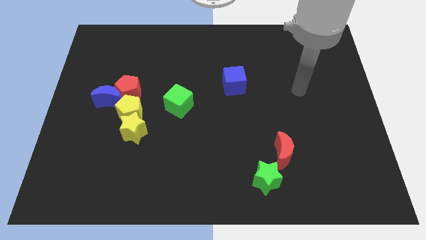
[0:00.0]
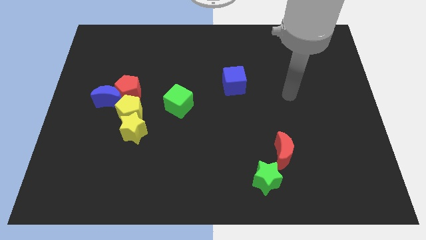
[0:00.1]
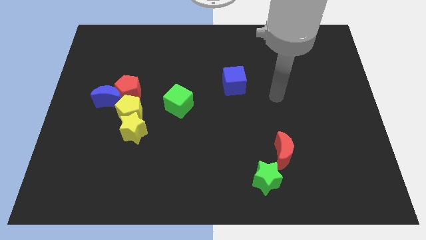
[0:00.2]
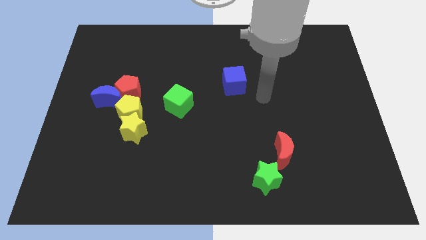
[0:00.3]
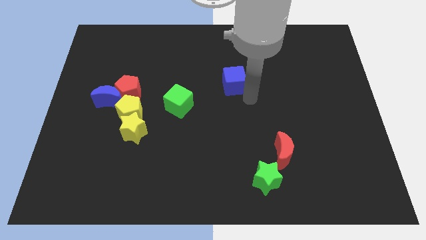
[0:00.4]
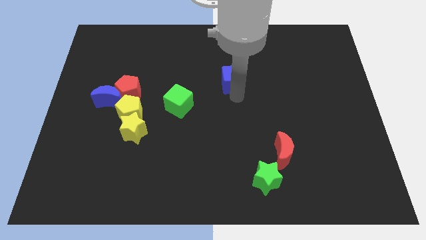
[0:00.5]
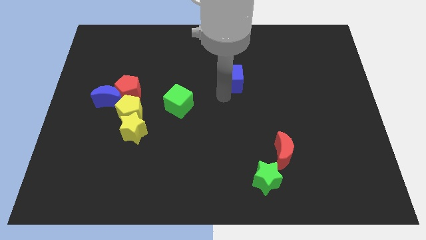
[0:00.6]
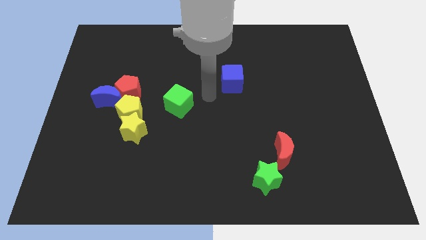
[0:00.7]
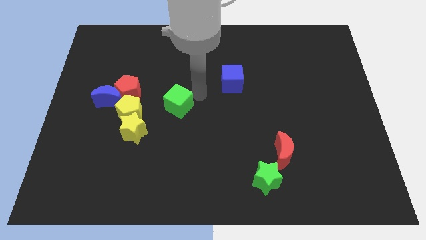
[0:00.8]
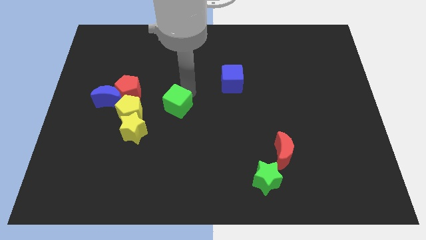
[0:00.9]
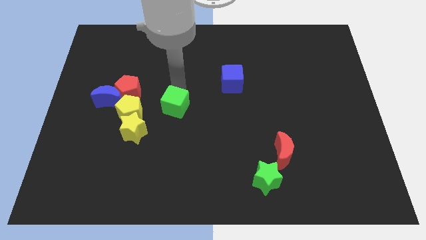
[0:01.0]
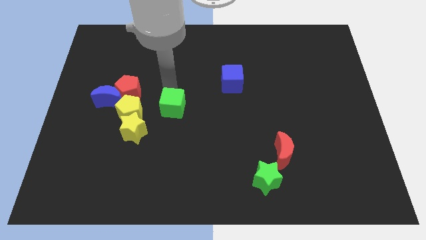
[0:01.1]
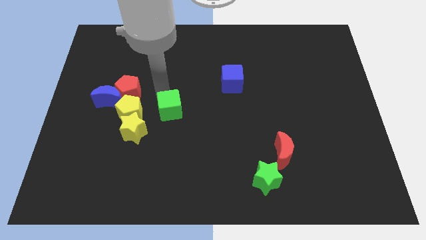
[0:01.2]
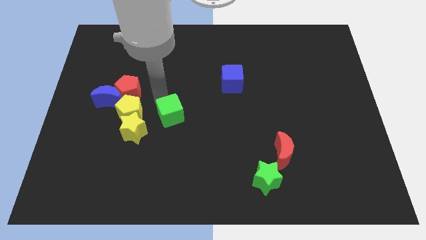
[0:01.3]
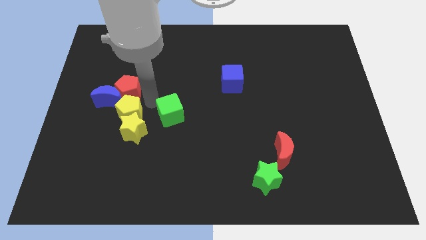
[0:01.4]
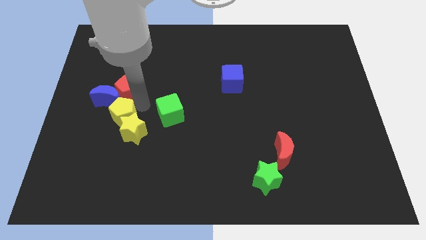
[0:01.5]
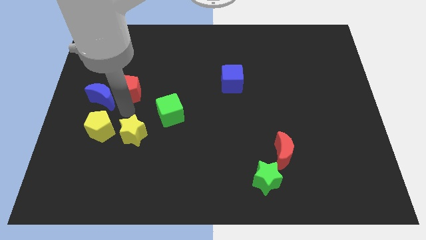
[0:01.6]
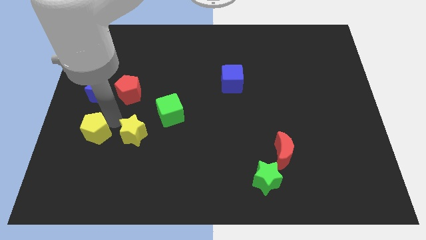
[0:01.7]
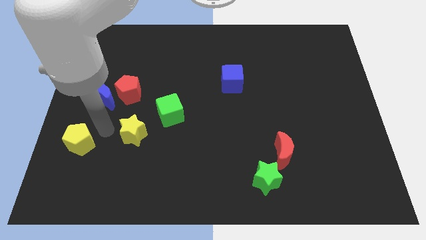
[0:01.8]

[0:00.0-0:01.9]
move the yellow star away from the yellow pentagon

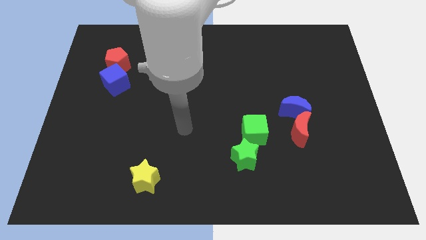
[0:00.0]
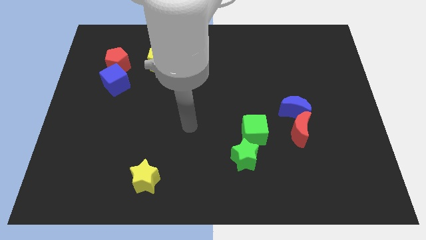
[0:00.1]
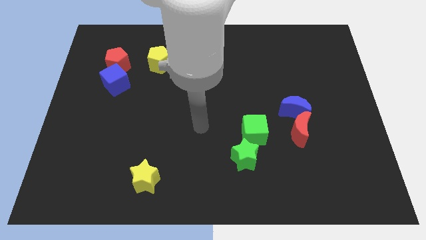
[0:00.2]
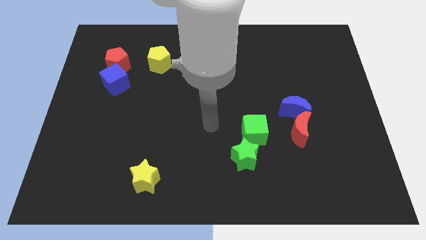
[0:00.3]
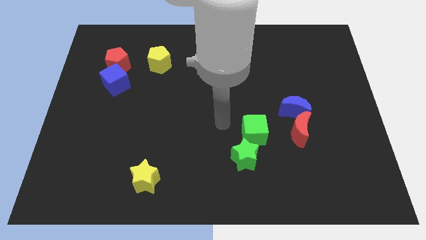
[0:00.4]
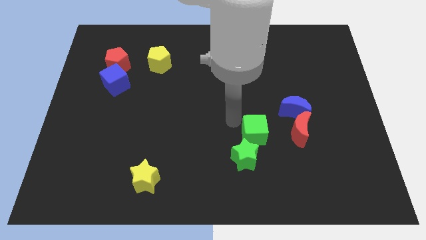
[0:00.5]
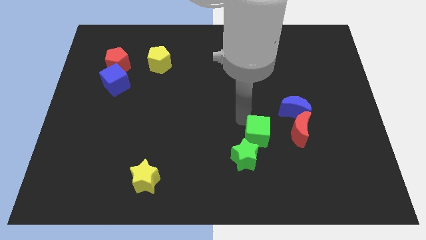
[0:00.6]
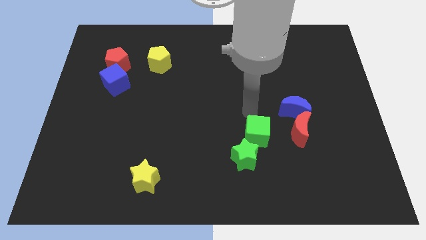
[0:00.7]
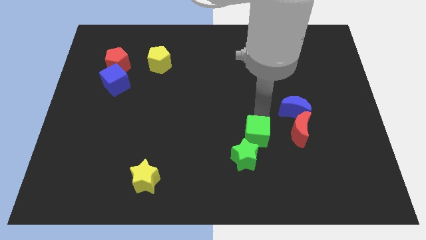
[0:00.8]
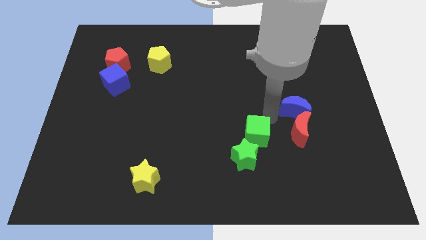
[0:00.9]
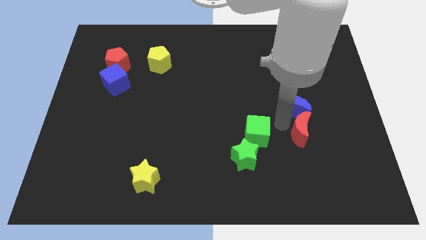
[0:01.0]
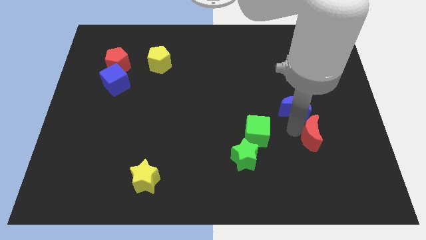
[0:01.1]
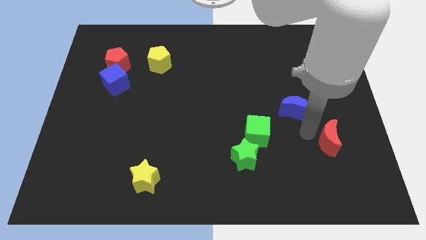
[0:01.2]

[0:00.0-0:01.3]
separate the blue moon from the red moon

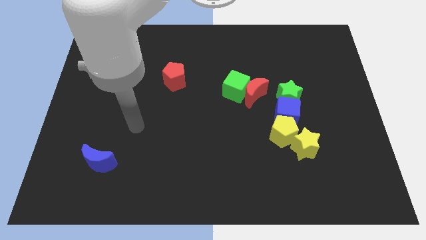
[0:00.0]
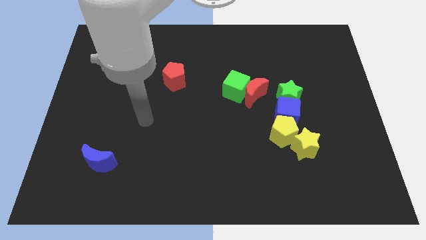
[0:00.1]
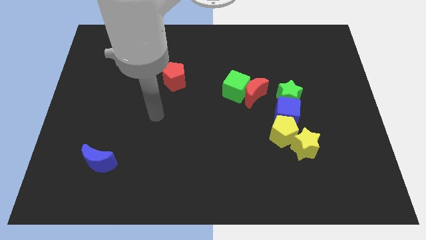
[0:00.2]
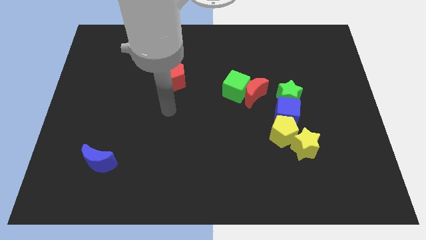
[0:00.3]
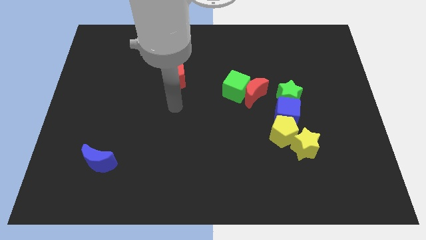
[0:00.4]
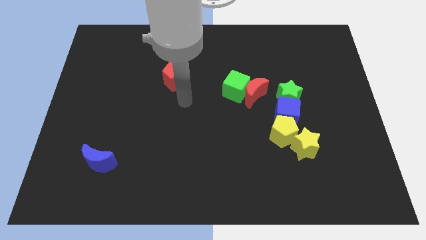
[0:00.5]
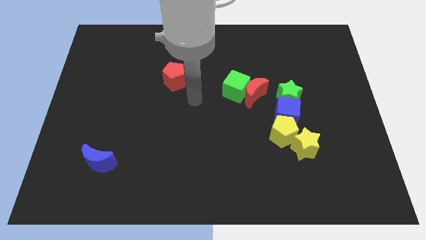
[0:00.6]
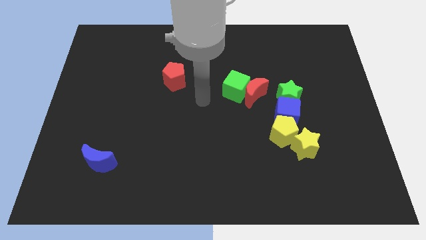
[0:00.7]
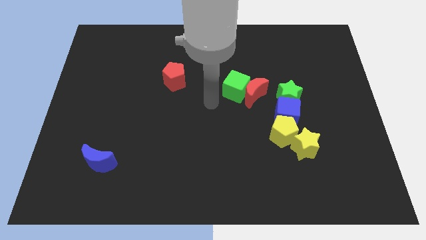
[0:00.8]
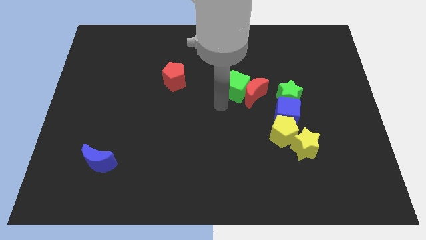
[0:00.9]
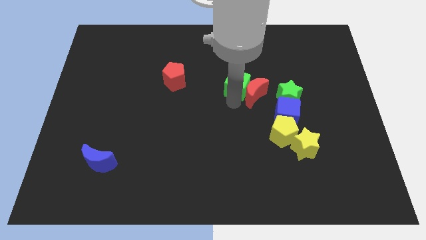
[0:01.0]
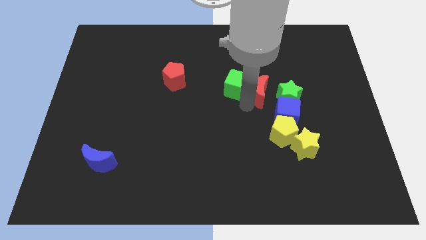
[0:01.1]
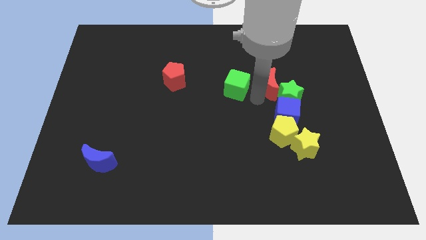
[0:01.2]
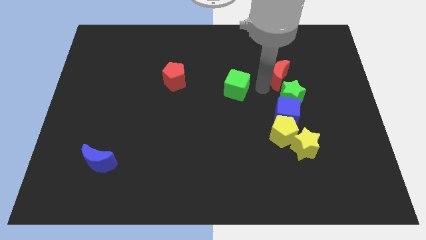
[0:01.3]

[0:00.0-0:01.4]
pull the green cube apart from the red moon

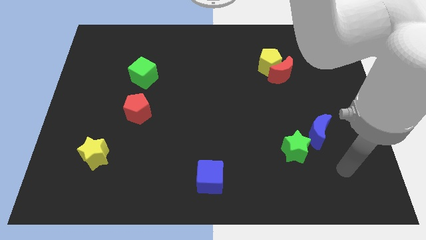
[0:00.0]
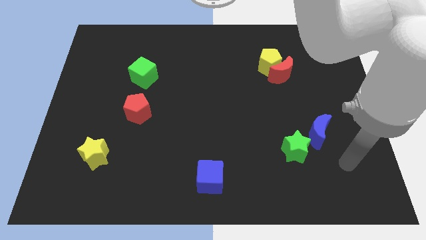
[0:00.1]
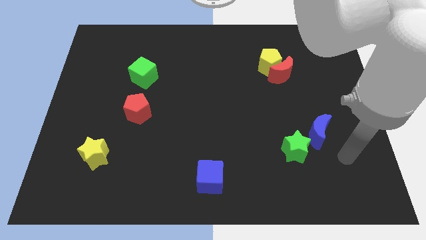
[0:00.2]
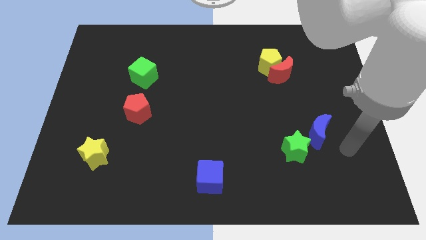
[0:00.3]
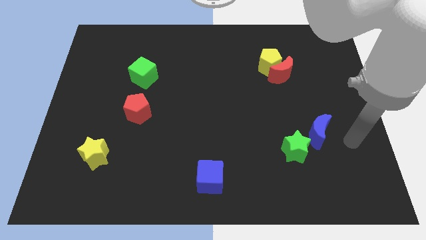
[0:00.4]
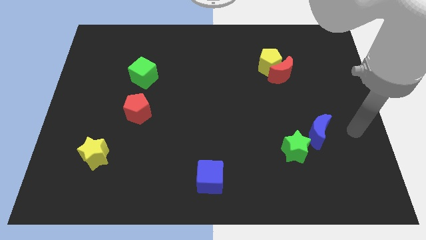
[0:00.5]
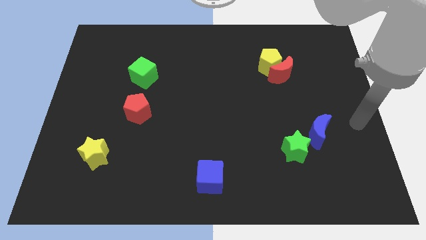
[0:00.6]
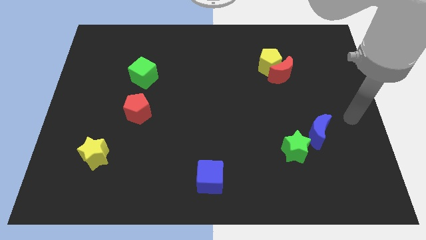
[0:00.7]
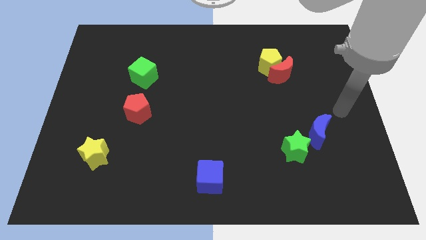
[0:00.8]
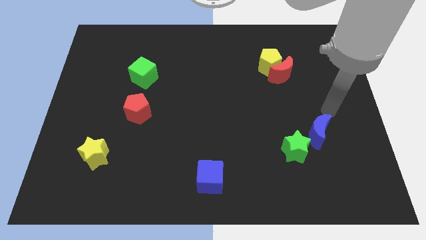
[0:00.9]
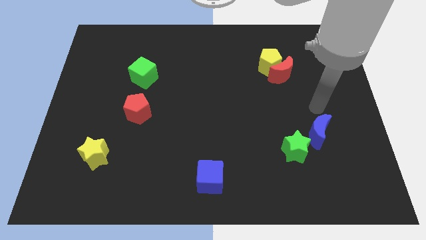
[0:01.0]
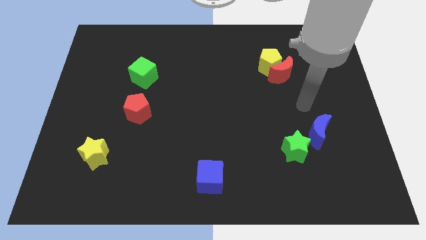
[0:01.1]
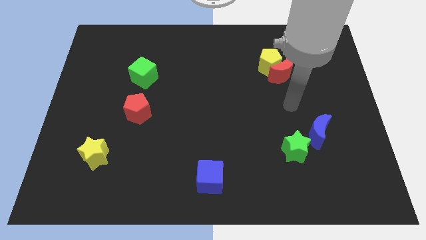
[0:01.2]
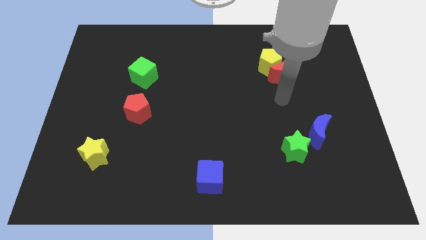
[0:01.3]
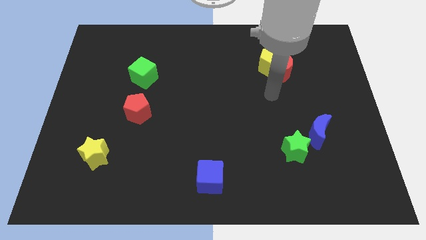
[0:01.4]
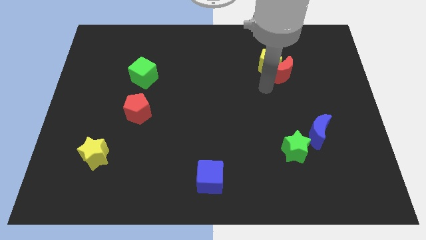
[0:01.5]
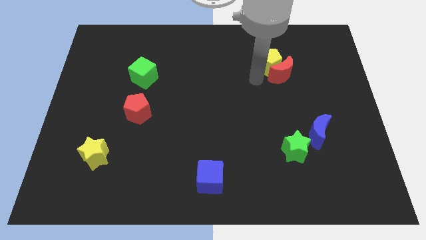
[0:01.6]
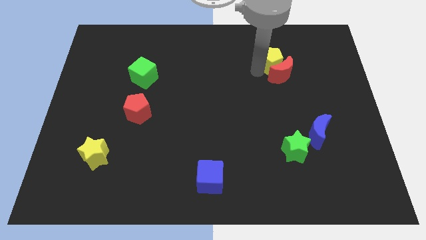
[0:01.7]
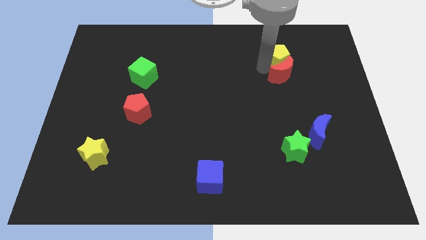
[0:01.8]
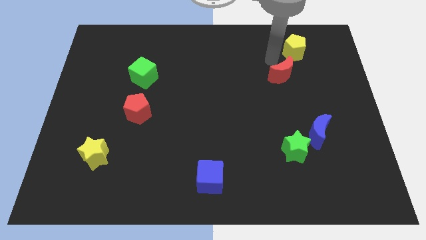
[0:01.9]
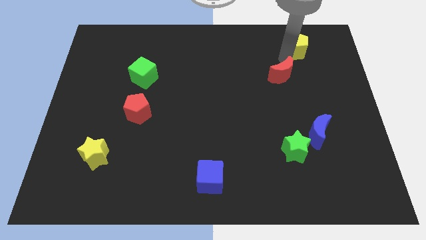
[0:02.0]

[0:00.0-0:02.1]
separate the red moon from the yellow pentagon

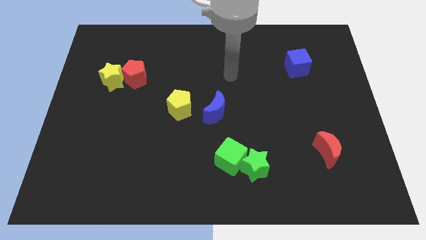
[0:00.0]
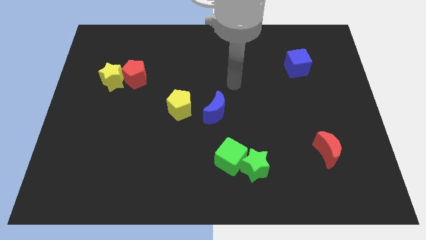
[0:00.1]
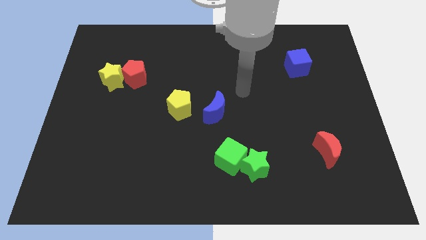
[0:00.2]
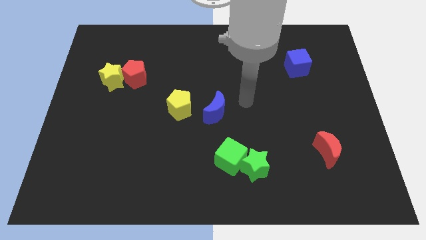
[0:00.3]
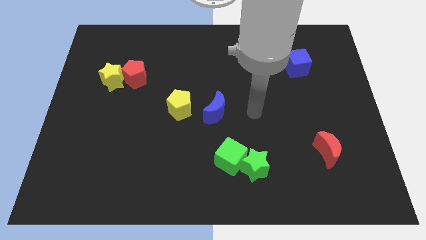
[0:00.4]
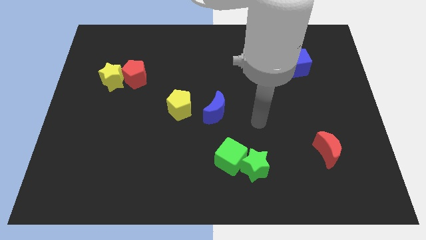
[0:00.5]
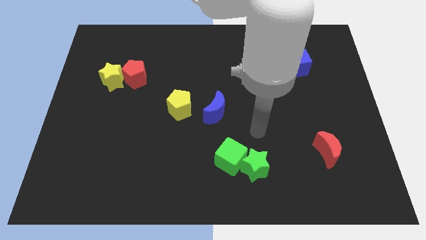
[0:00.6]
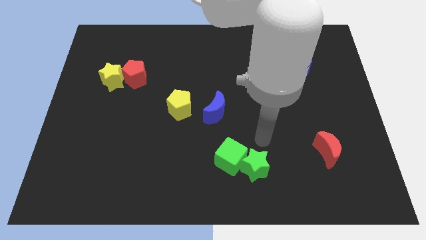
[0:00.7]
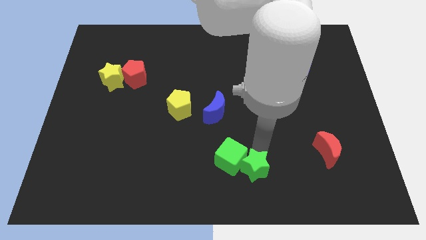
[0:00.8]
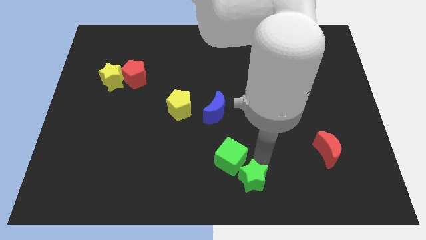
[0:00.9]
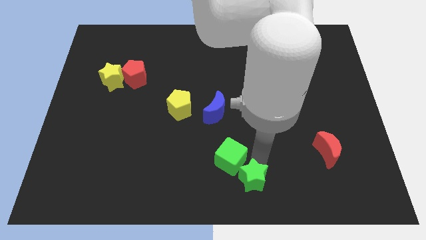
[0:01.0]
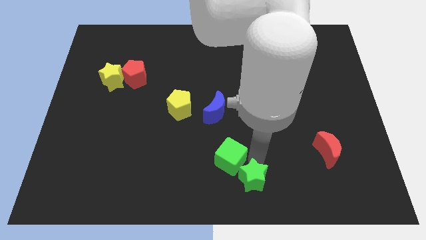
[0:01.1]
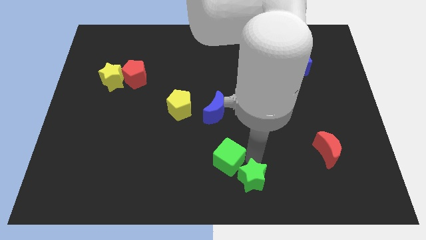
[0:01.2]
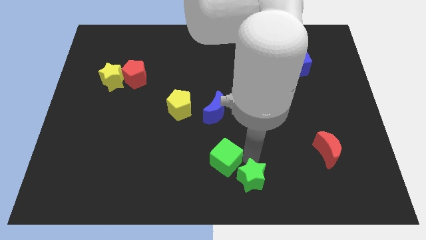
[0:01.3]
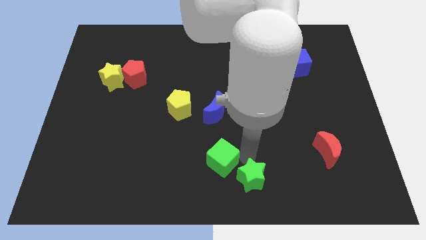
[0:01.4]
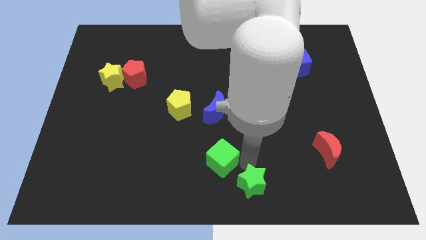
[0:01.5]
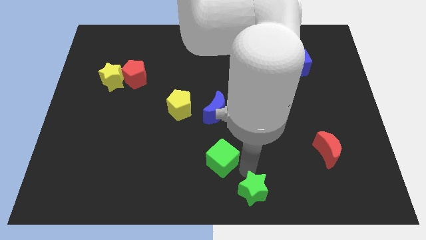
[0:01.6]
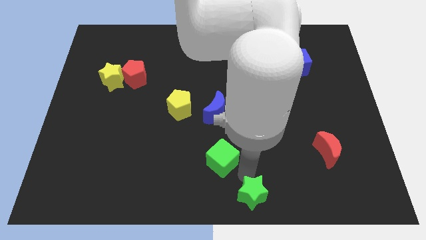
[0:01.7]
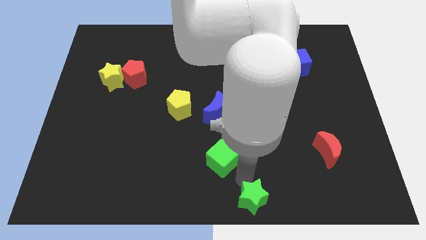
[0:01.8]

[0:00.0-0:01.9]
pull the green cube apart from the green star

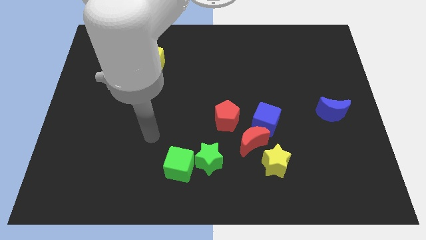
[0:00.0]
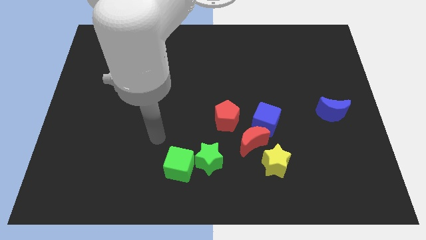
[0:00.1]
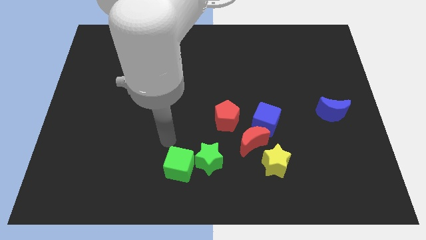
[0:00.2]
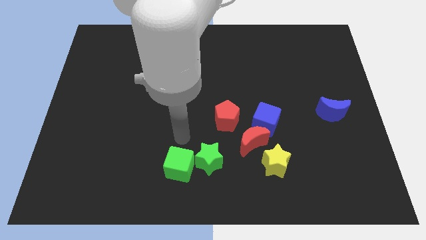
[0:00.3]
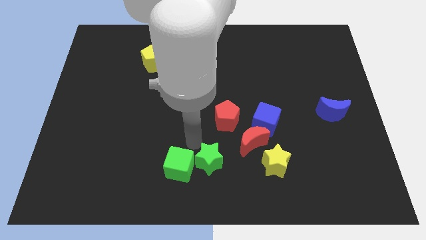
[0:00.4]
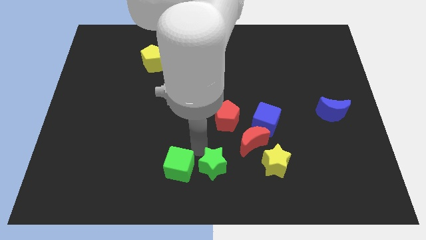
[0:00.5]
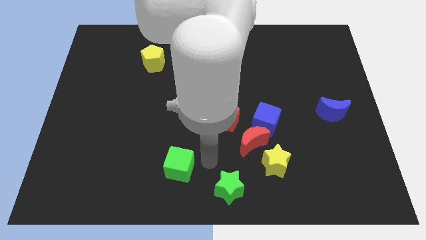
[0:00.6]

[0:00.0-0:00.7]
move the green cube away from the green star
